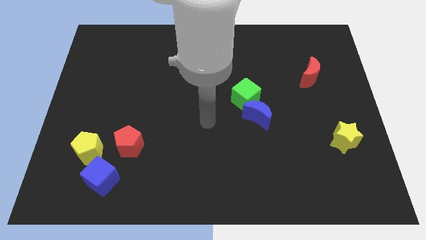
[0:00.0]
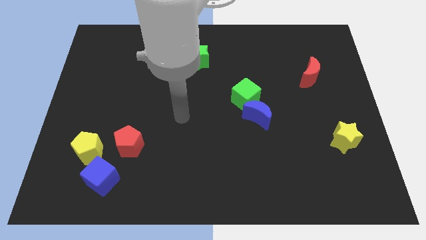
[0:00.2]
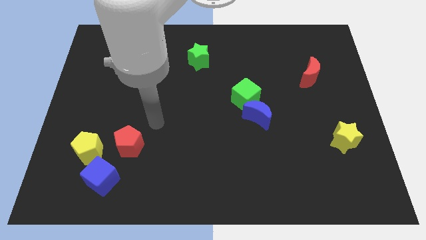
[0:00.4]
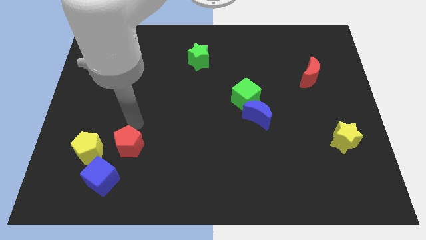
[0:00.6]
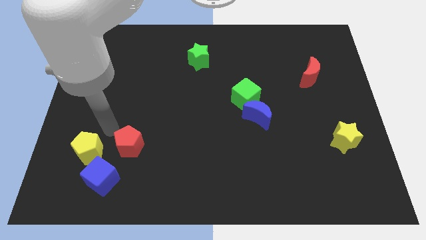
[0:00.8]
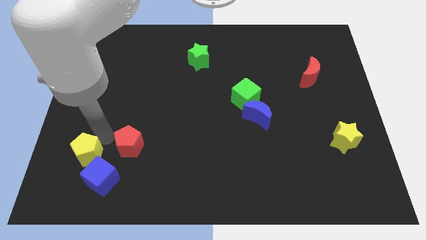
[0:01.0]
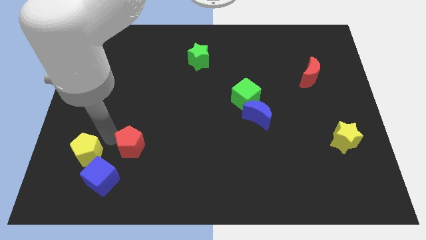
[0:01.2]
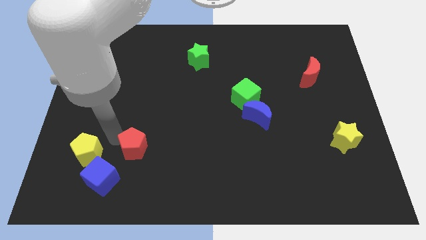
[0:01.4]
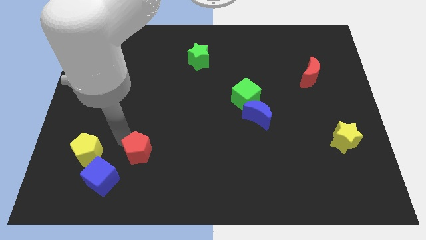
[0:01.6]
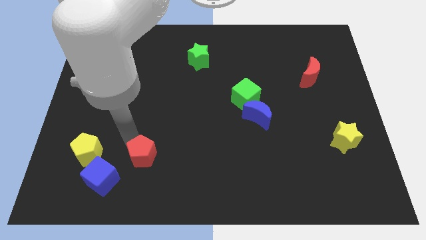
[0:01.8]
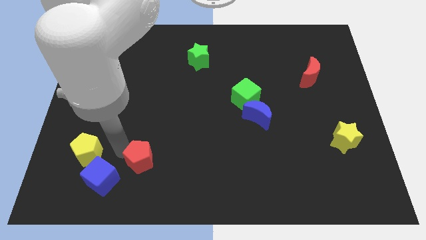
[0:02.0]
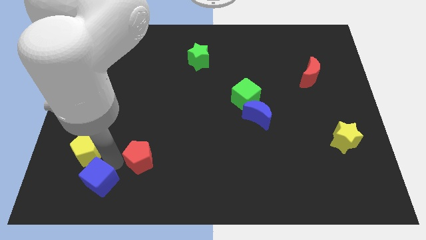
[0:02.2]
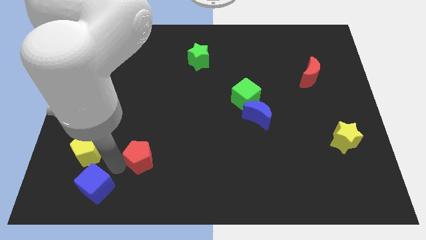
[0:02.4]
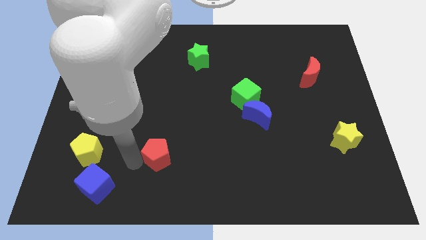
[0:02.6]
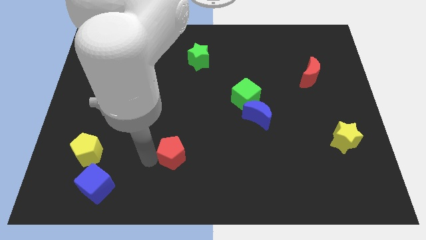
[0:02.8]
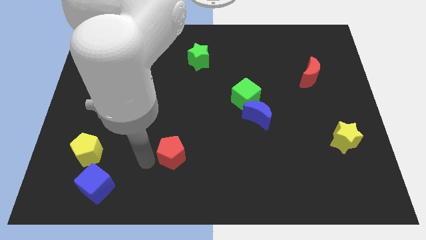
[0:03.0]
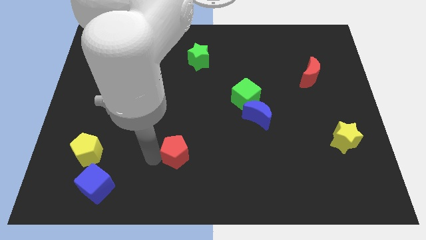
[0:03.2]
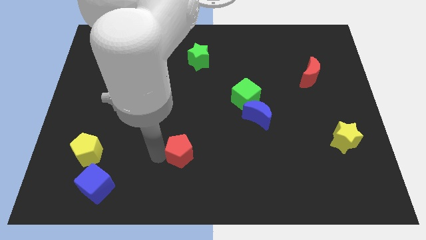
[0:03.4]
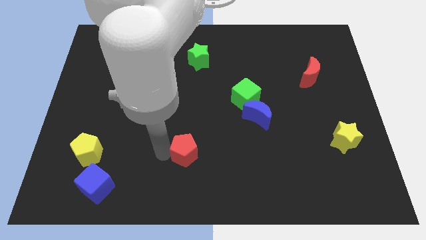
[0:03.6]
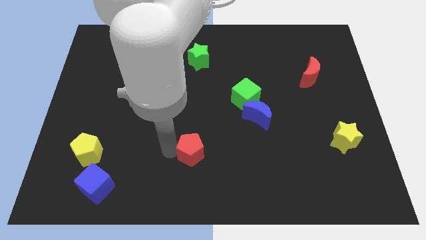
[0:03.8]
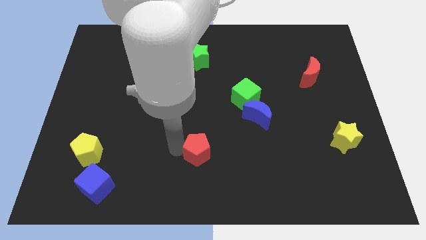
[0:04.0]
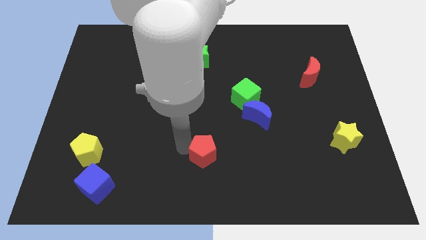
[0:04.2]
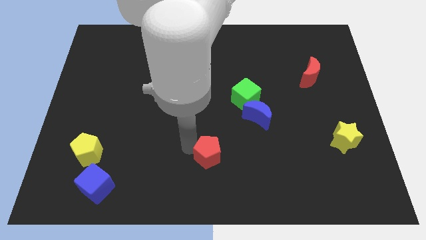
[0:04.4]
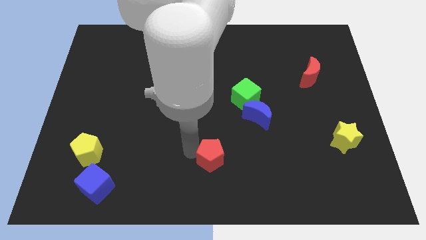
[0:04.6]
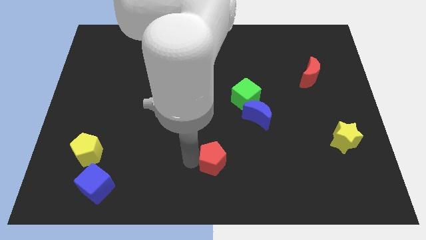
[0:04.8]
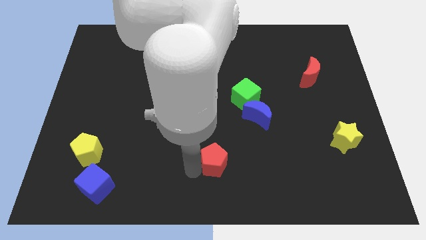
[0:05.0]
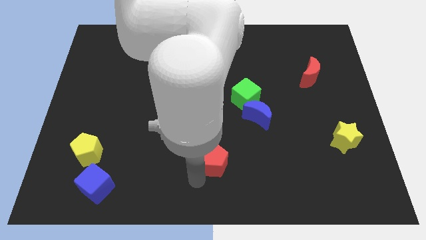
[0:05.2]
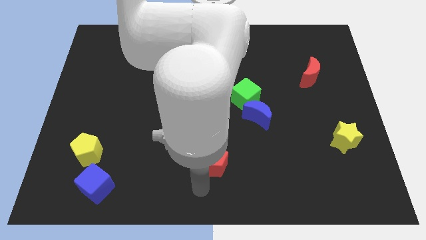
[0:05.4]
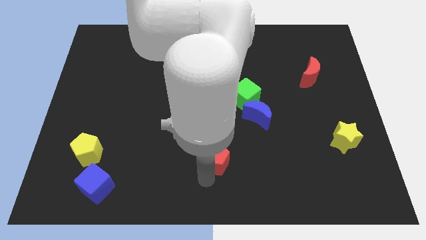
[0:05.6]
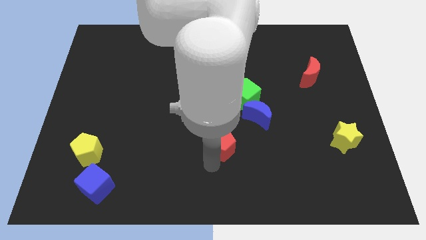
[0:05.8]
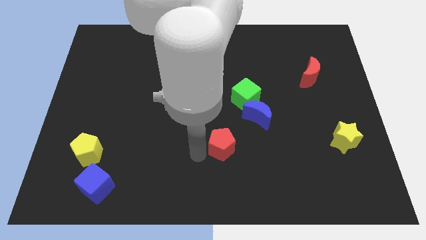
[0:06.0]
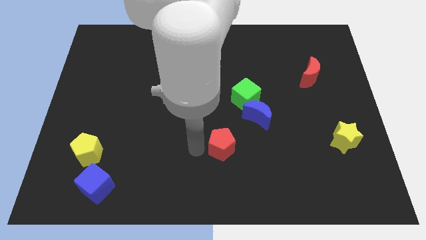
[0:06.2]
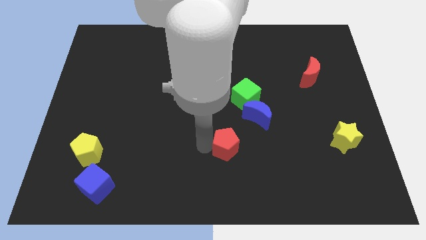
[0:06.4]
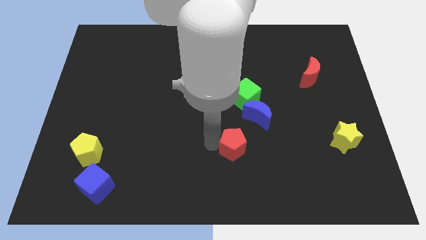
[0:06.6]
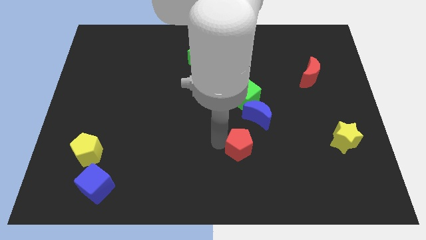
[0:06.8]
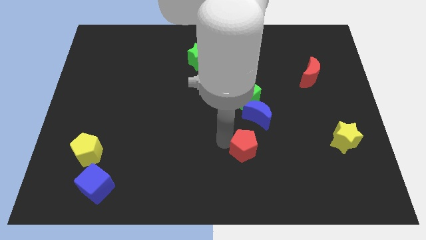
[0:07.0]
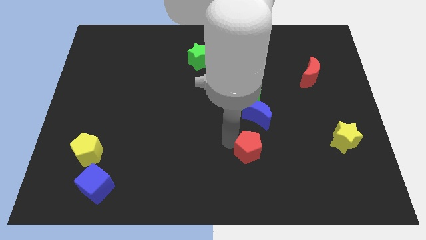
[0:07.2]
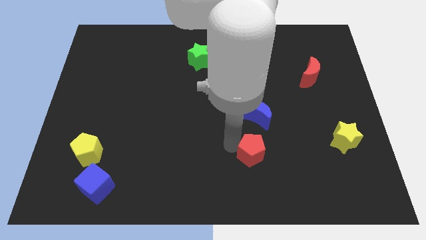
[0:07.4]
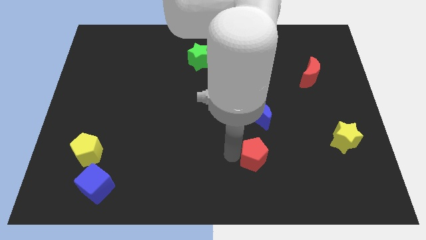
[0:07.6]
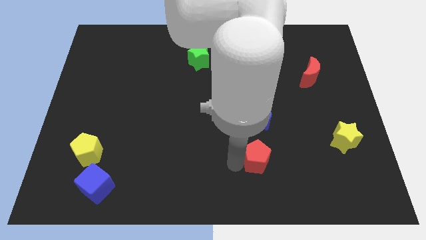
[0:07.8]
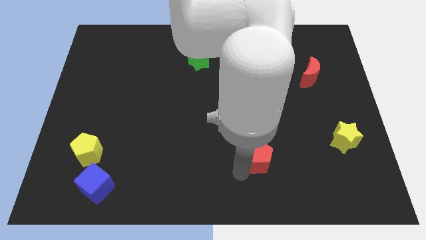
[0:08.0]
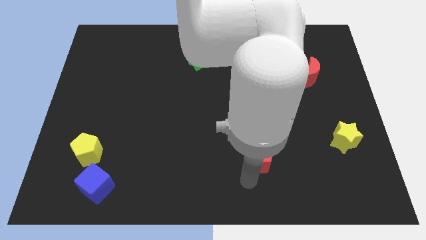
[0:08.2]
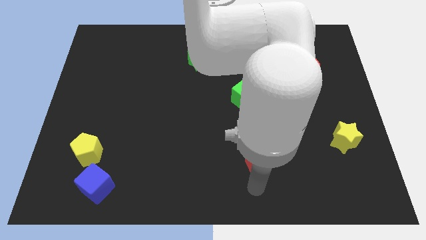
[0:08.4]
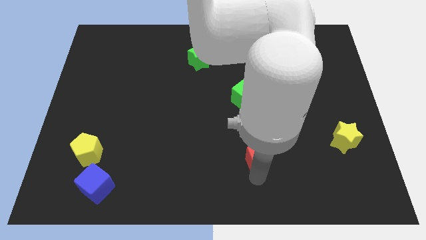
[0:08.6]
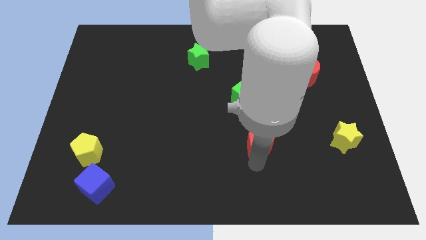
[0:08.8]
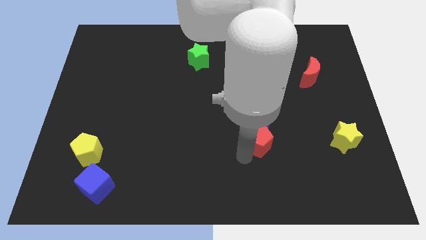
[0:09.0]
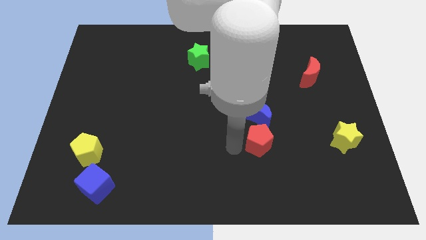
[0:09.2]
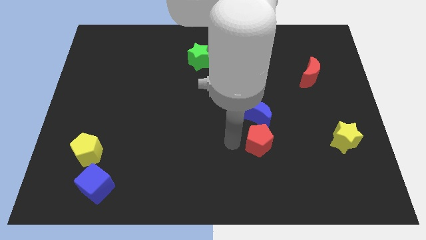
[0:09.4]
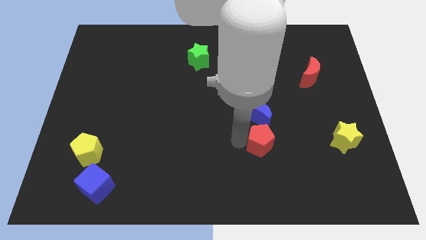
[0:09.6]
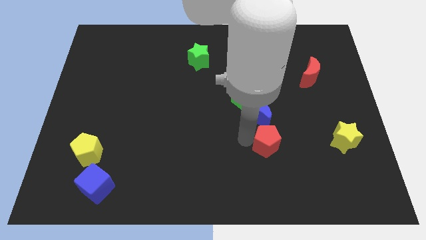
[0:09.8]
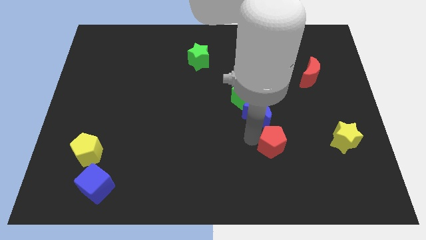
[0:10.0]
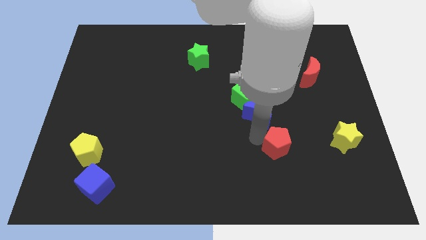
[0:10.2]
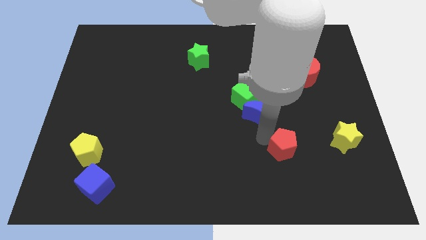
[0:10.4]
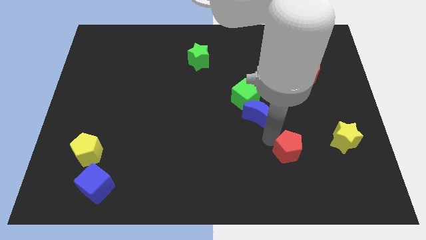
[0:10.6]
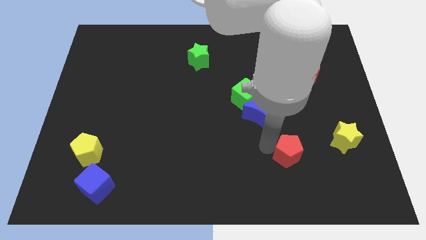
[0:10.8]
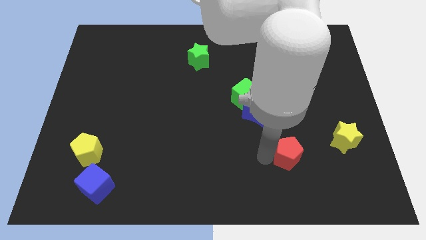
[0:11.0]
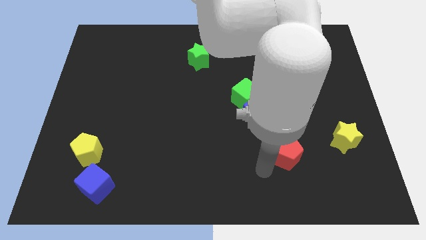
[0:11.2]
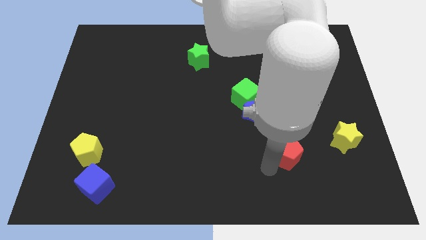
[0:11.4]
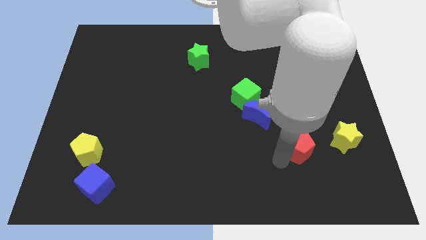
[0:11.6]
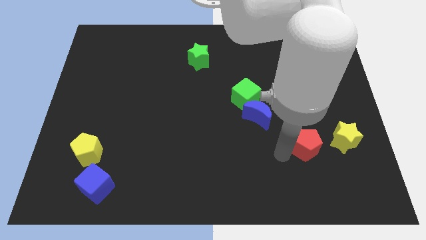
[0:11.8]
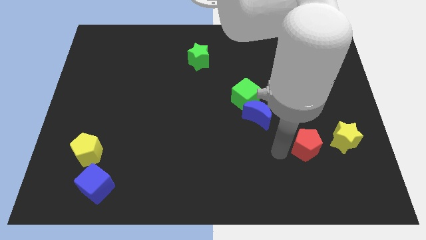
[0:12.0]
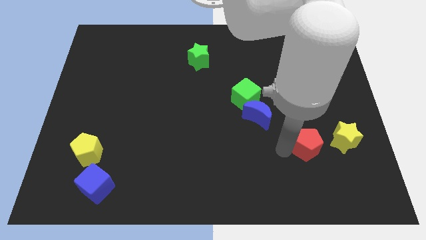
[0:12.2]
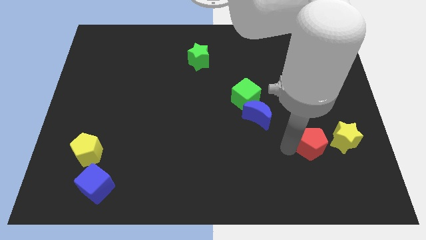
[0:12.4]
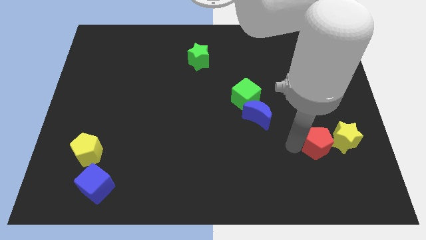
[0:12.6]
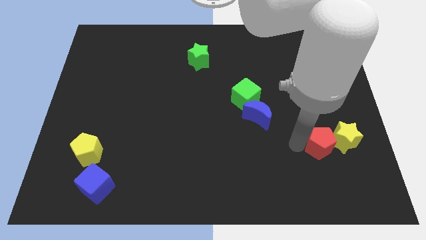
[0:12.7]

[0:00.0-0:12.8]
slide the red pentagon towards the yellow star

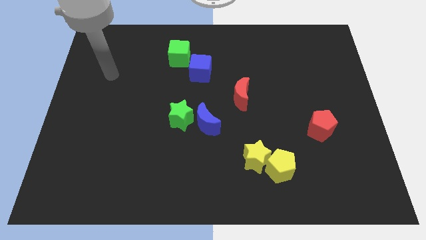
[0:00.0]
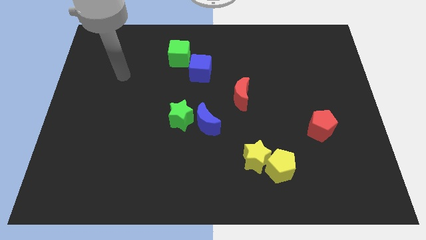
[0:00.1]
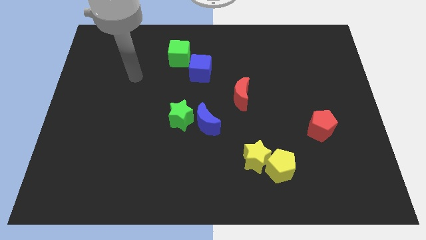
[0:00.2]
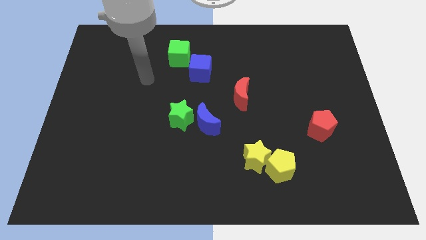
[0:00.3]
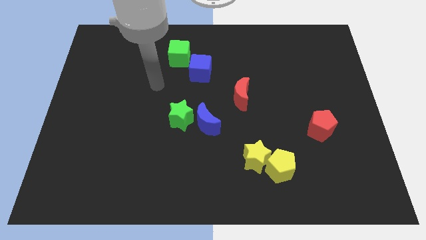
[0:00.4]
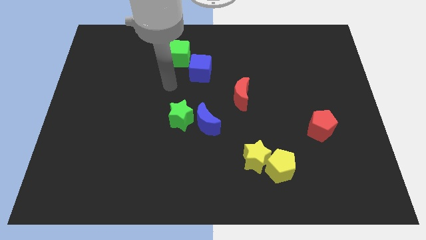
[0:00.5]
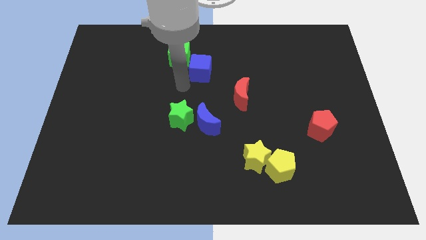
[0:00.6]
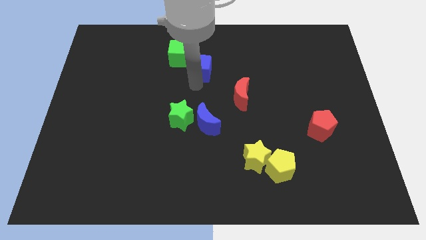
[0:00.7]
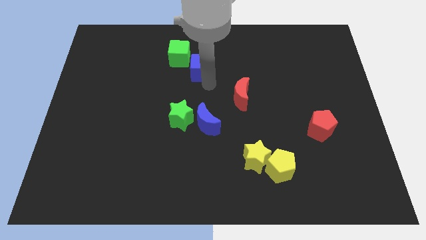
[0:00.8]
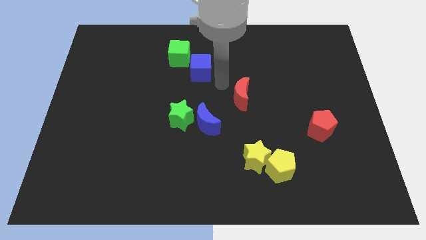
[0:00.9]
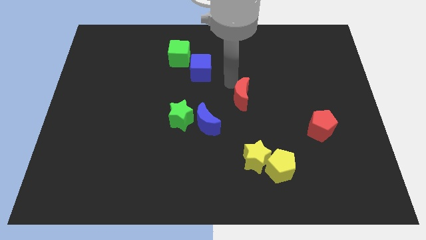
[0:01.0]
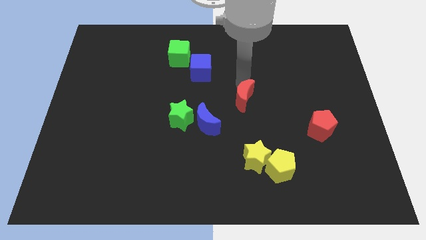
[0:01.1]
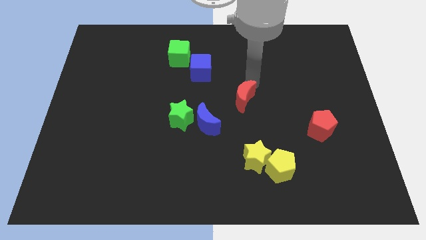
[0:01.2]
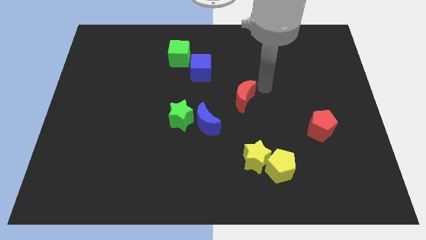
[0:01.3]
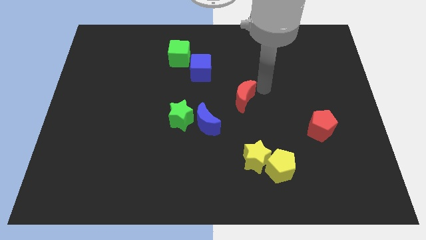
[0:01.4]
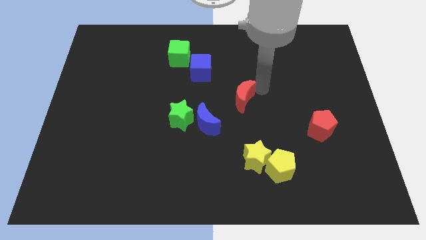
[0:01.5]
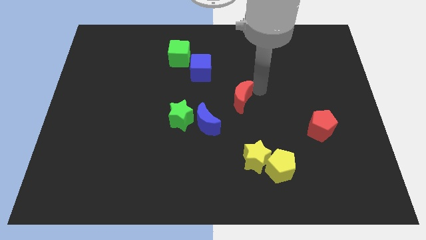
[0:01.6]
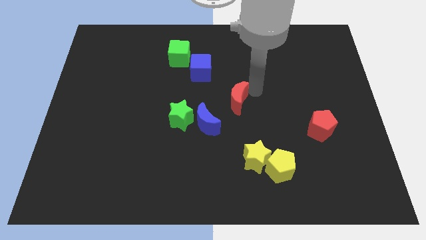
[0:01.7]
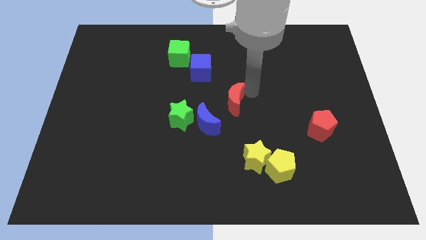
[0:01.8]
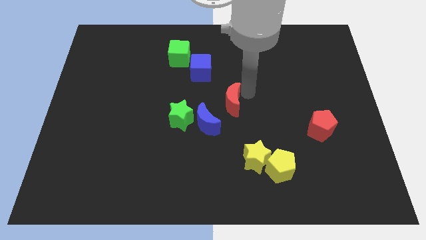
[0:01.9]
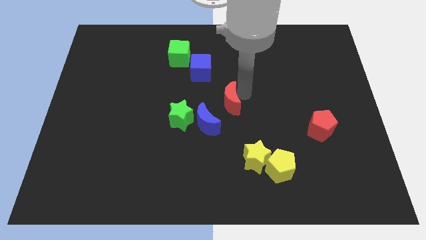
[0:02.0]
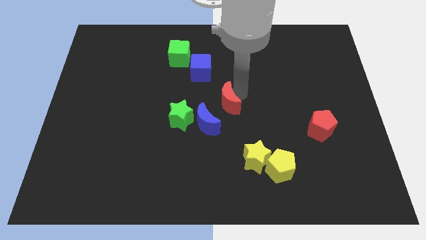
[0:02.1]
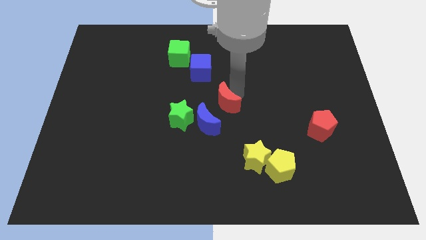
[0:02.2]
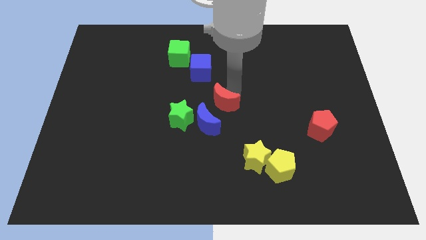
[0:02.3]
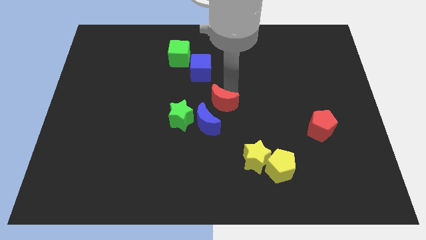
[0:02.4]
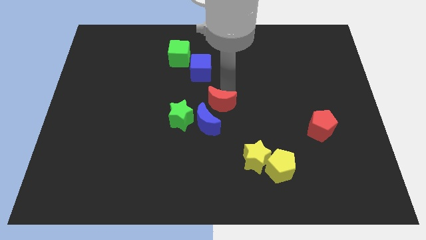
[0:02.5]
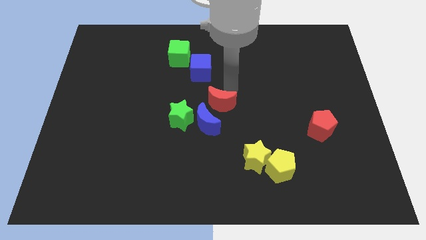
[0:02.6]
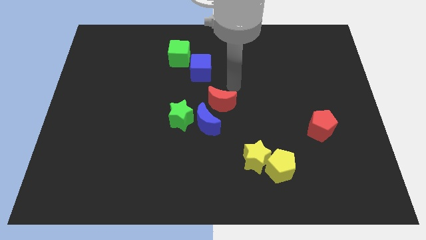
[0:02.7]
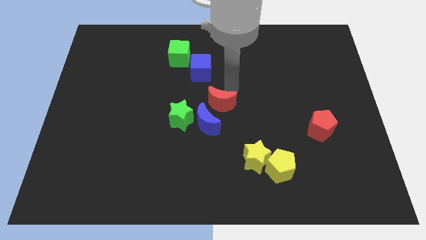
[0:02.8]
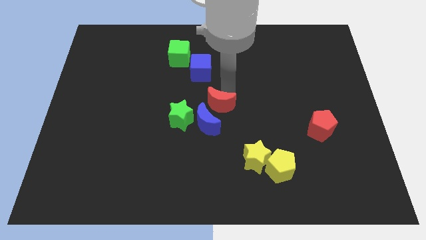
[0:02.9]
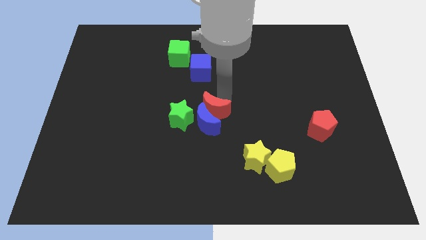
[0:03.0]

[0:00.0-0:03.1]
move the red moon towards the blue moon
